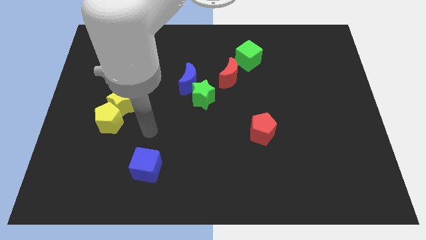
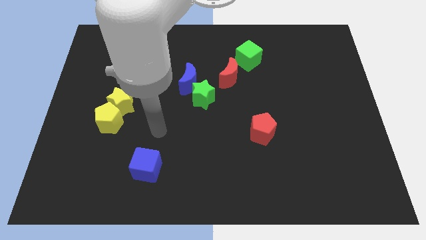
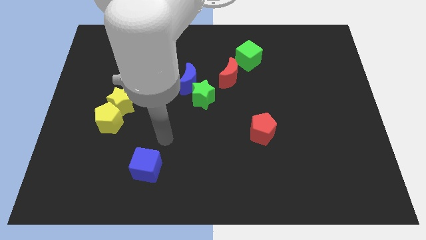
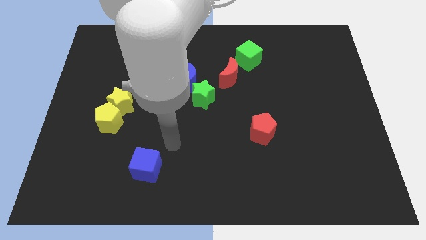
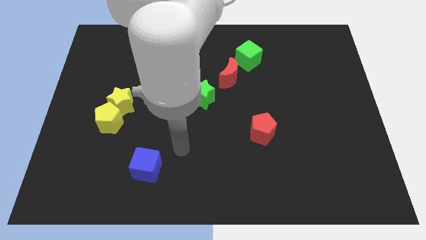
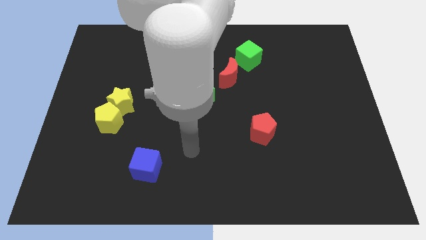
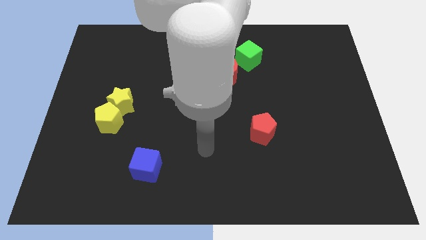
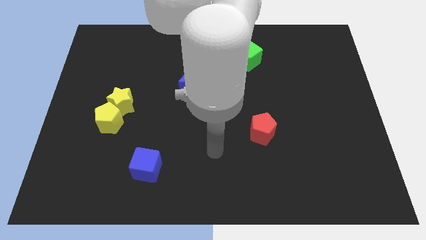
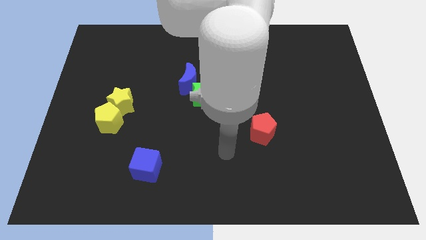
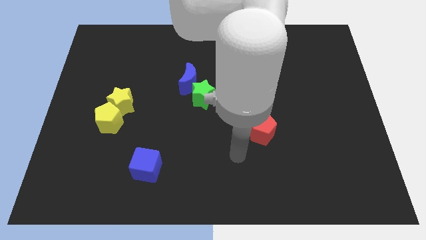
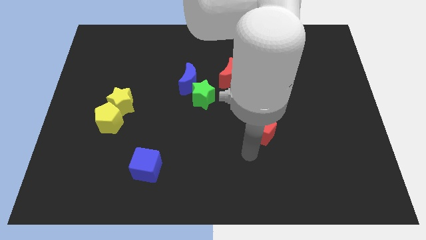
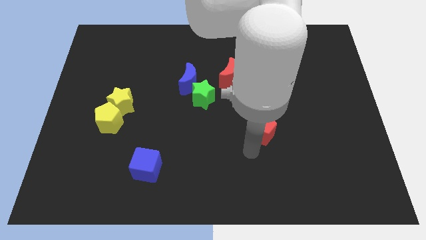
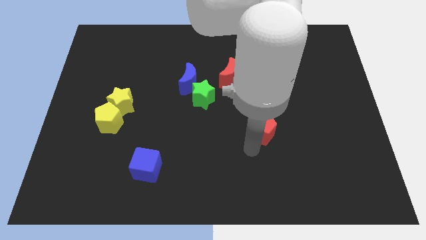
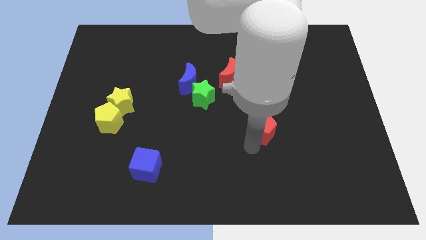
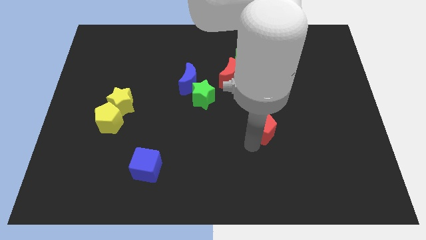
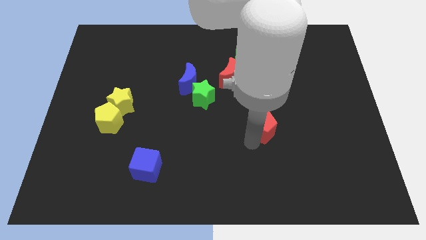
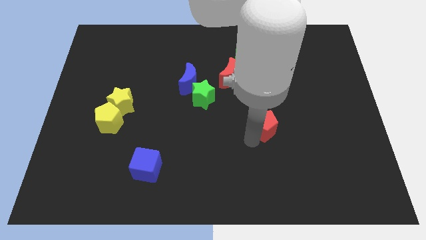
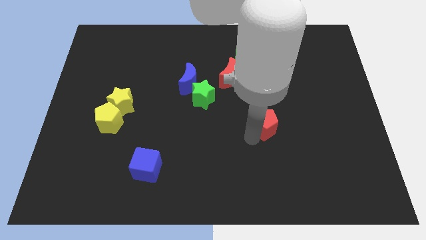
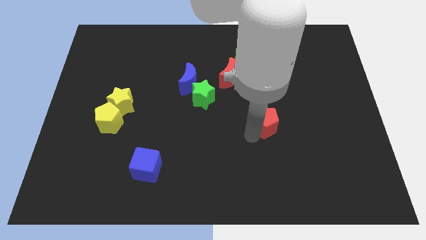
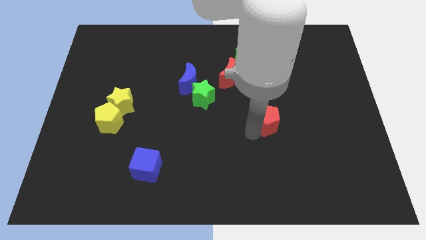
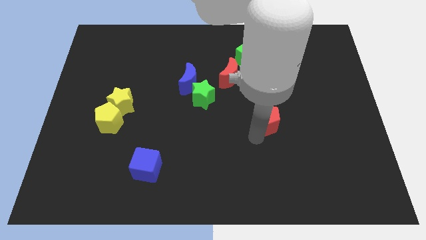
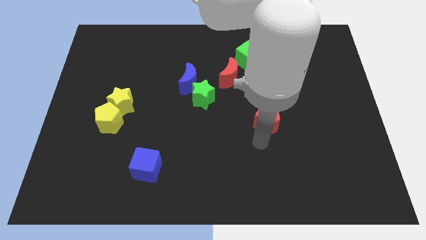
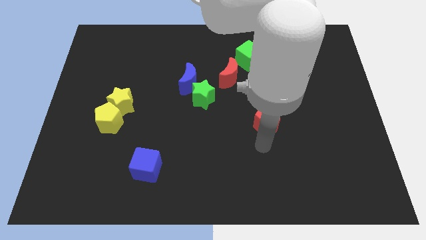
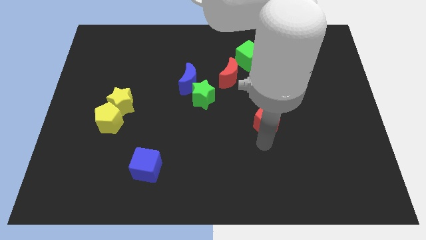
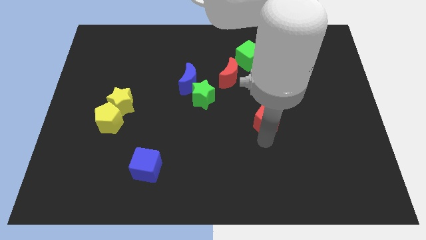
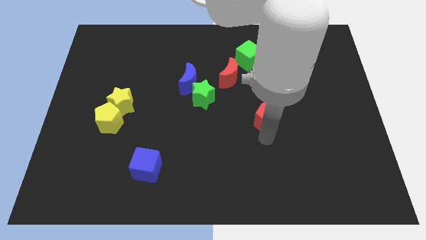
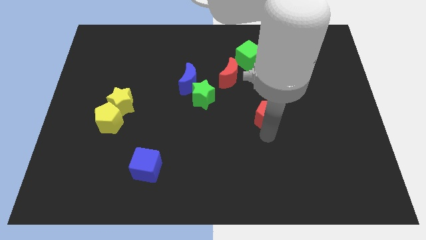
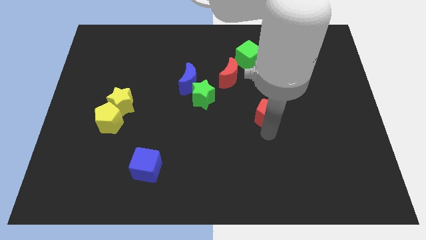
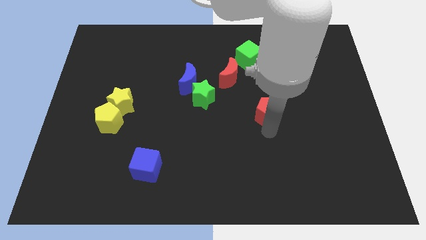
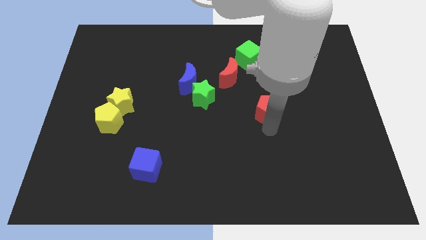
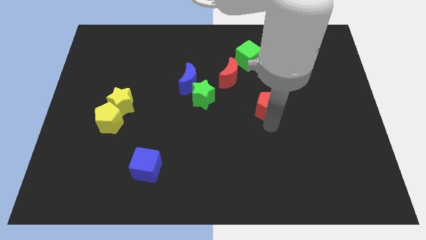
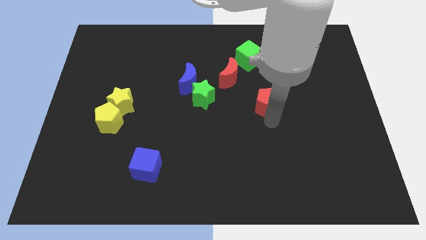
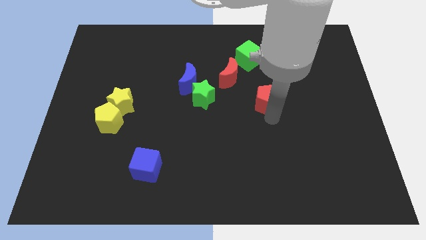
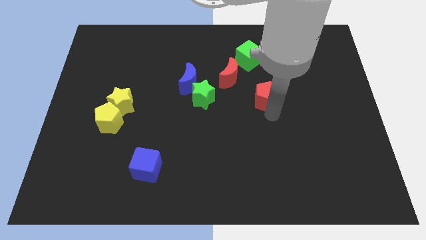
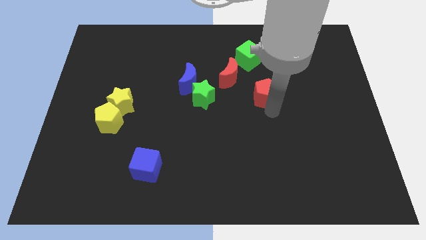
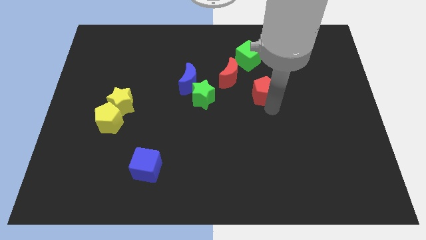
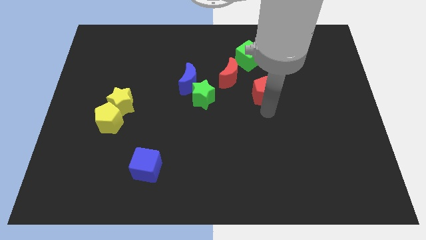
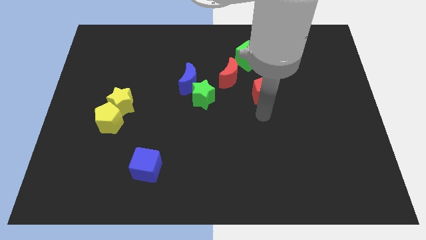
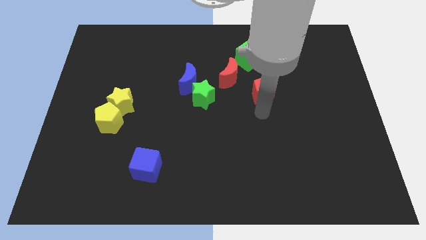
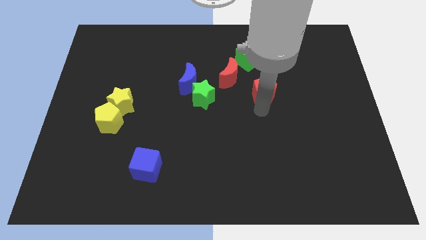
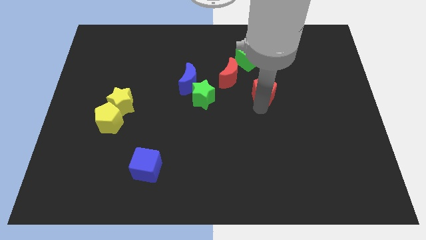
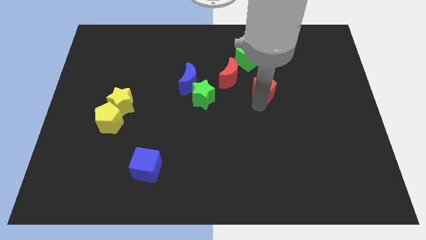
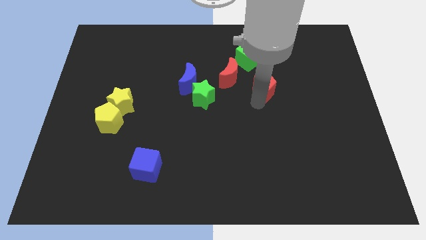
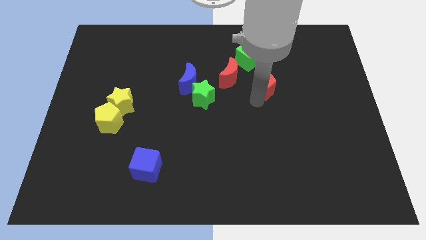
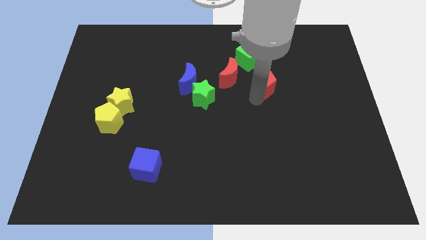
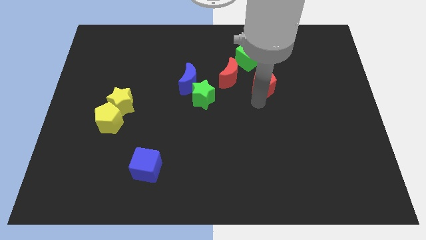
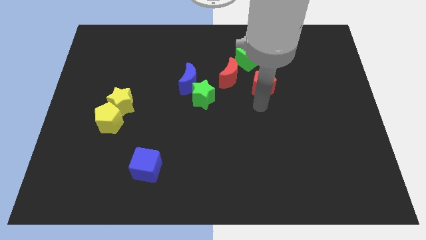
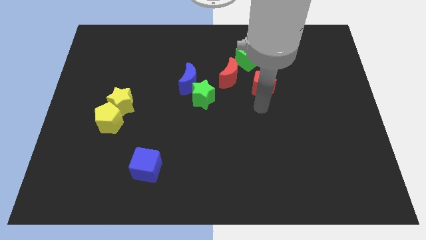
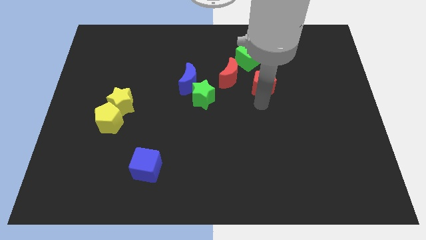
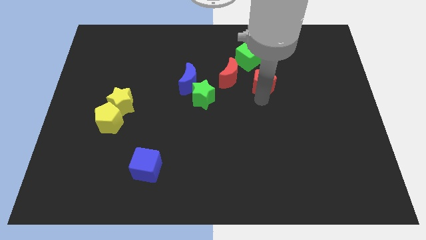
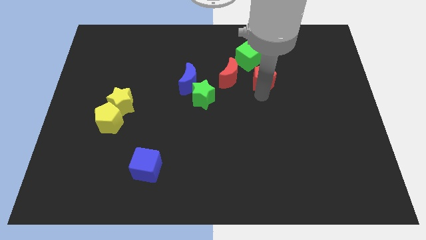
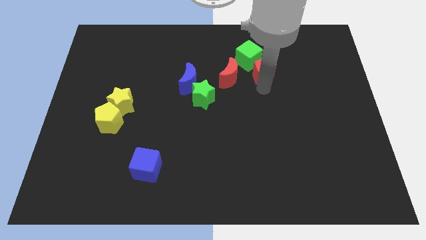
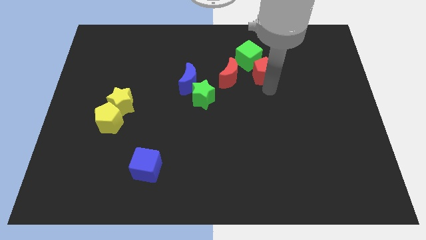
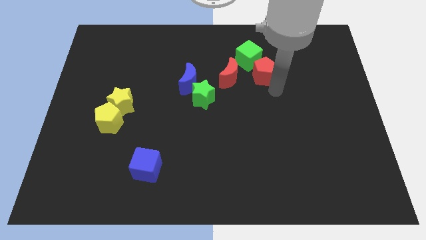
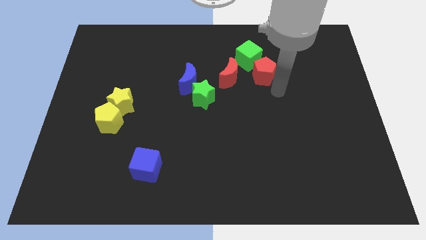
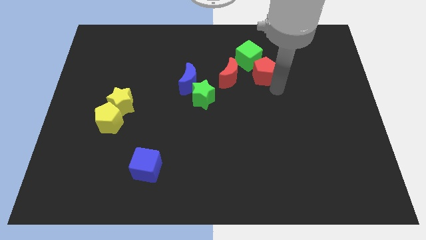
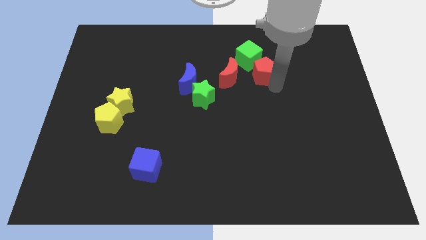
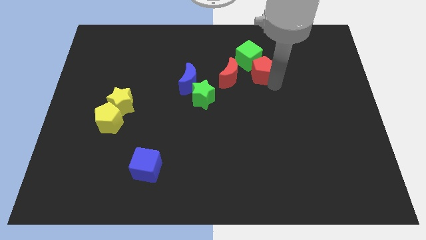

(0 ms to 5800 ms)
put the red pentagon to the green cube

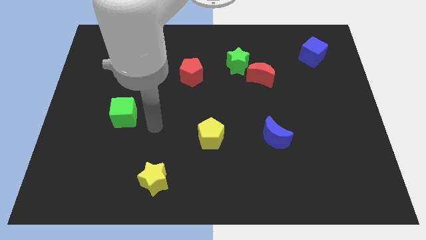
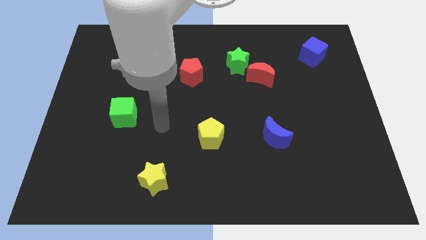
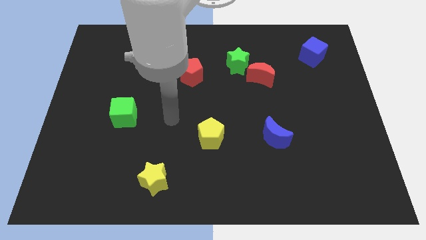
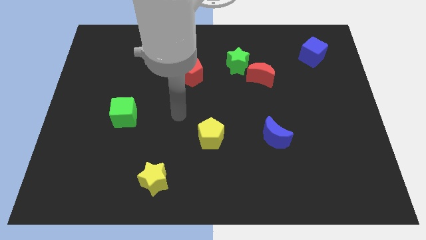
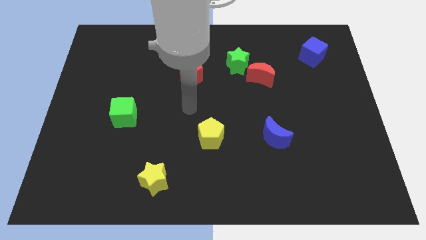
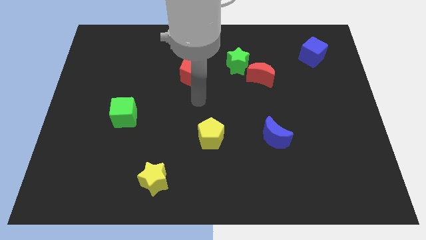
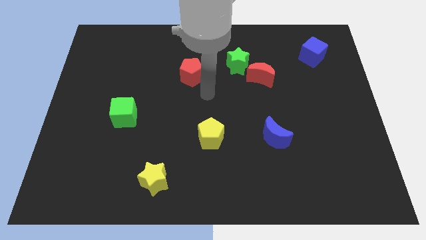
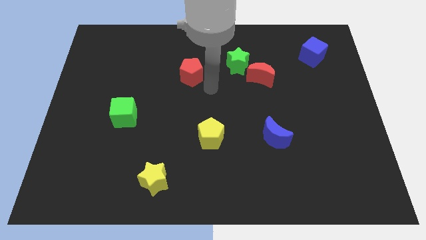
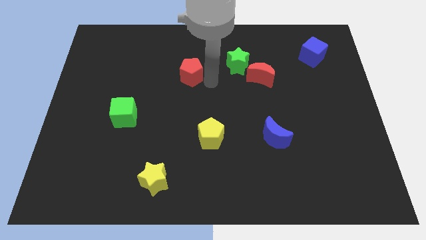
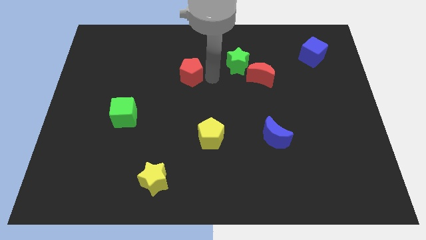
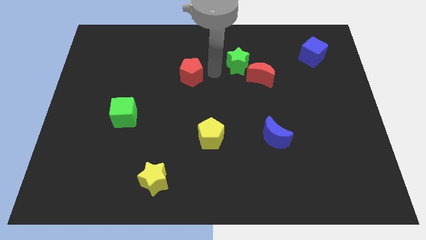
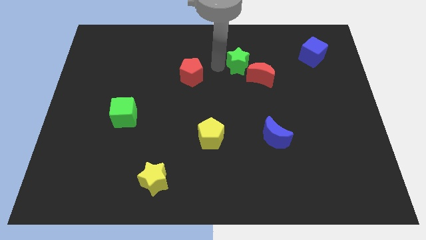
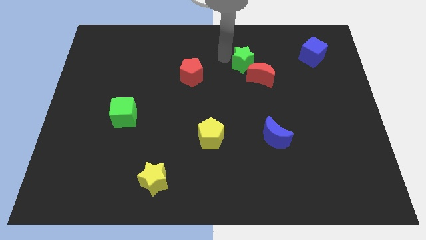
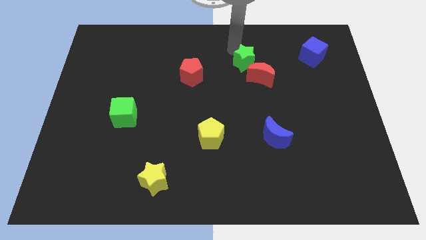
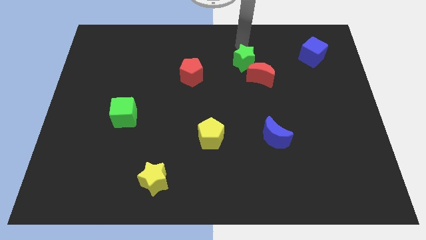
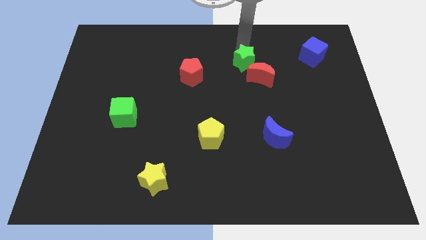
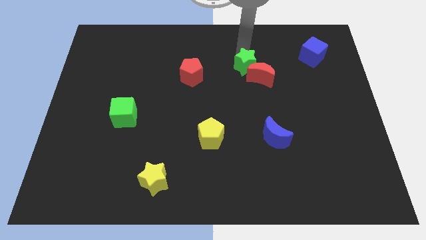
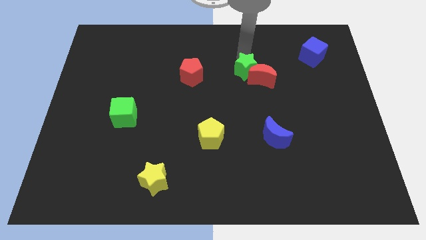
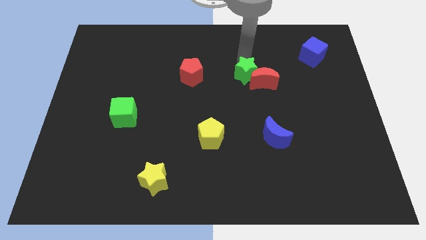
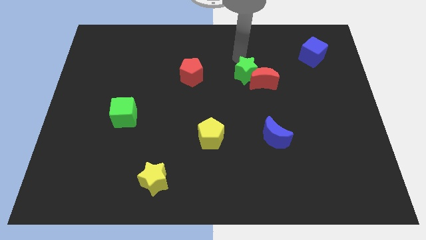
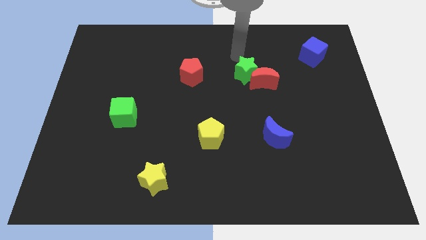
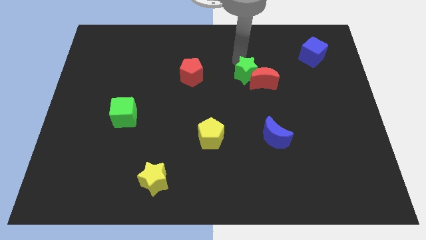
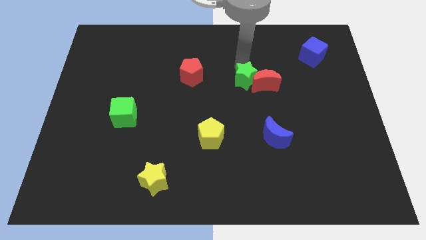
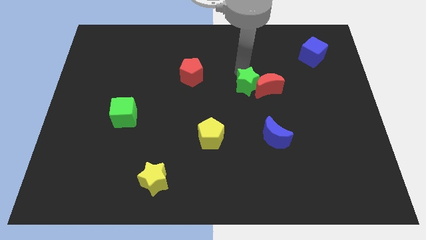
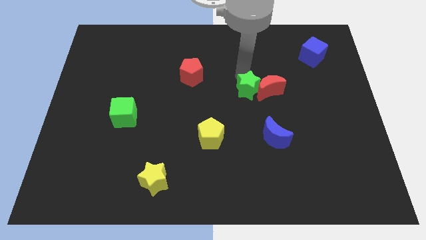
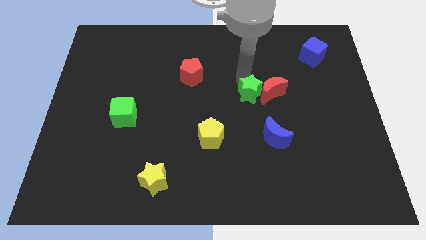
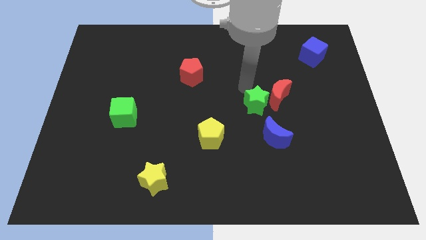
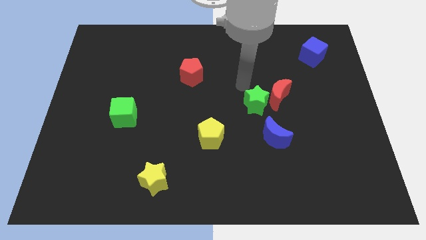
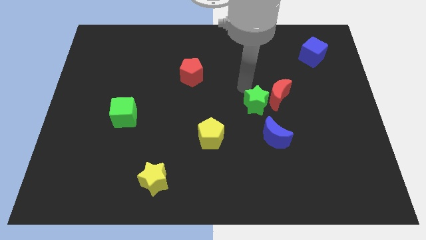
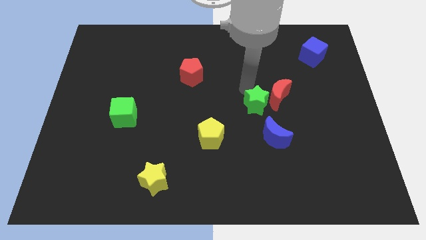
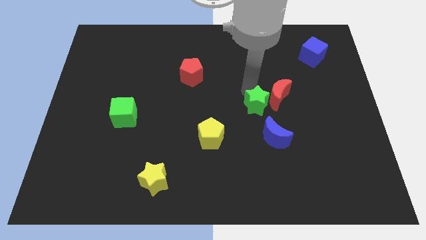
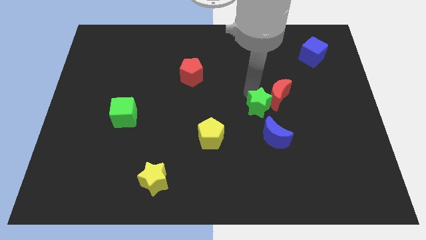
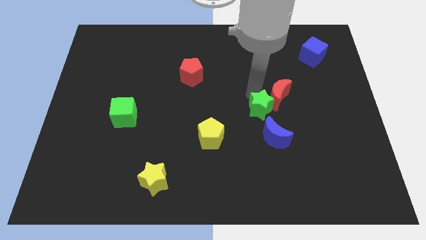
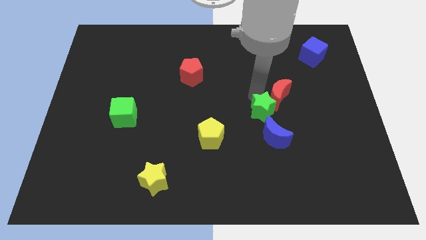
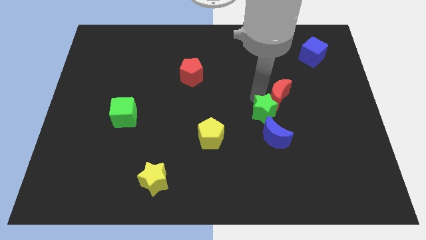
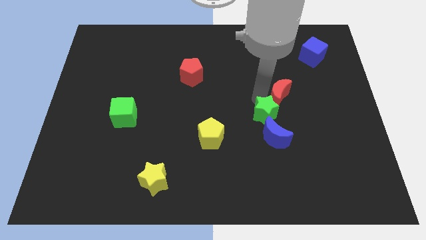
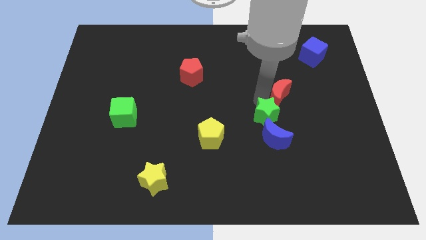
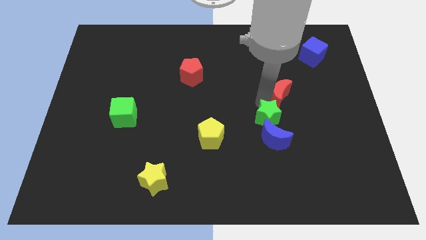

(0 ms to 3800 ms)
slide the green star close to the blue moon
